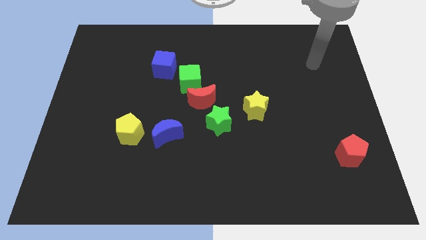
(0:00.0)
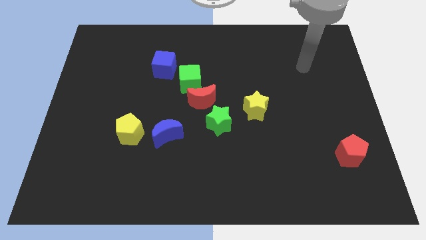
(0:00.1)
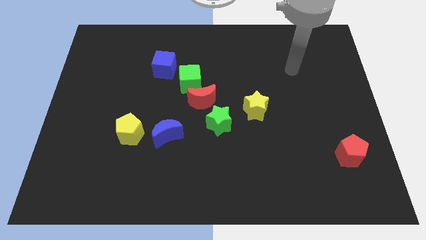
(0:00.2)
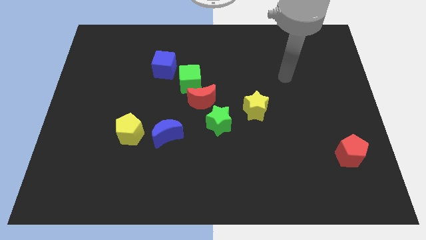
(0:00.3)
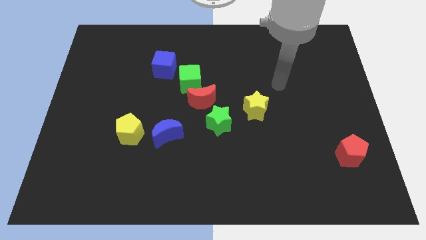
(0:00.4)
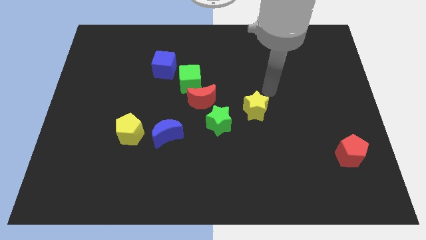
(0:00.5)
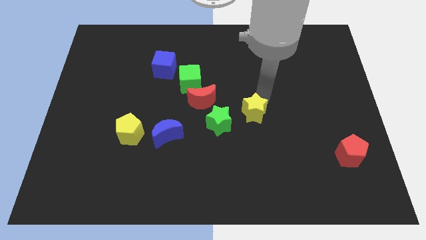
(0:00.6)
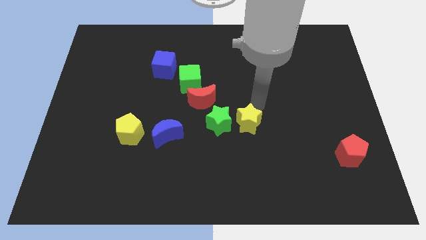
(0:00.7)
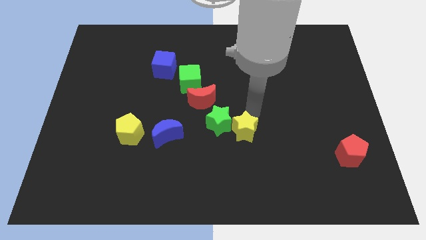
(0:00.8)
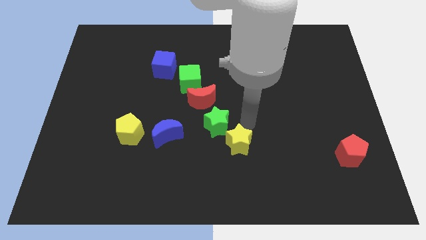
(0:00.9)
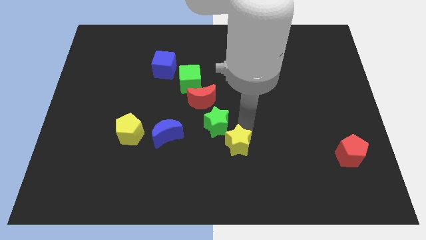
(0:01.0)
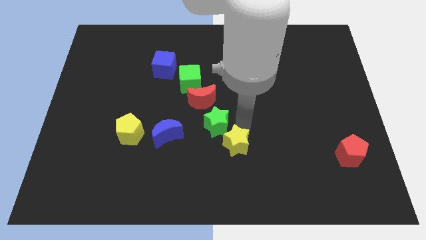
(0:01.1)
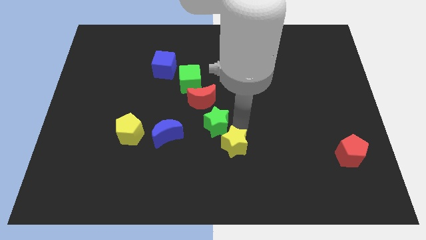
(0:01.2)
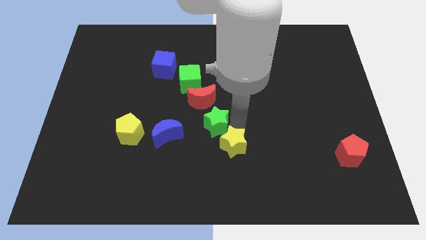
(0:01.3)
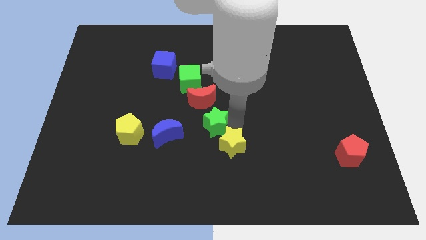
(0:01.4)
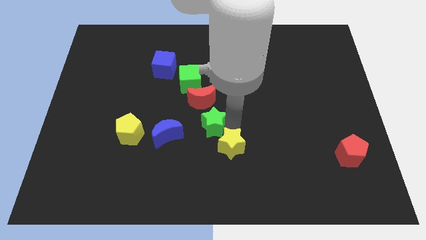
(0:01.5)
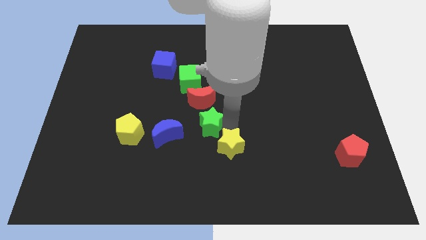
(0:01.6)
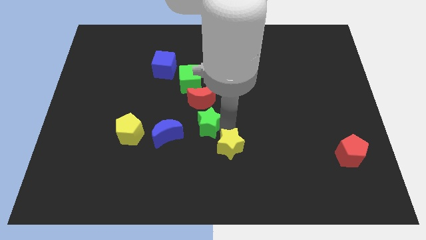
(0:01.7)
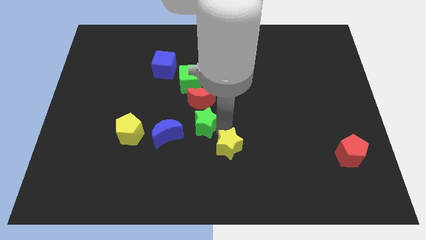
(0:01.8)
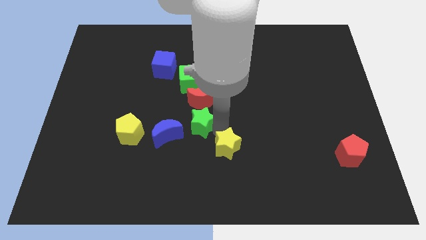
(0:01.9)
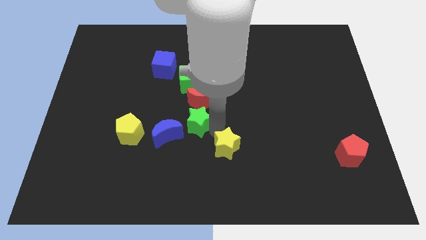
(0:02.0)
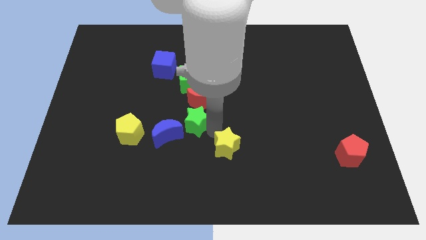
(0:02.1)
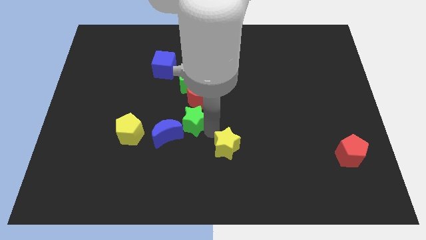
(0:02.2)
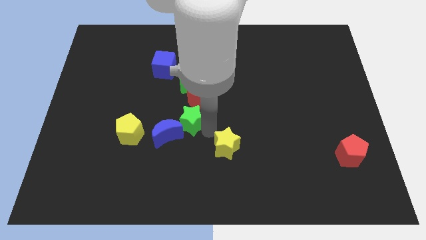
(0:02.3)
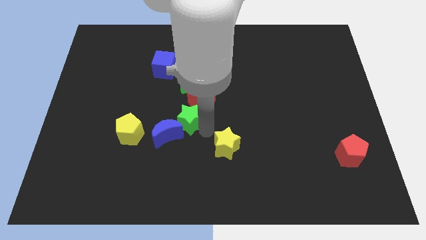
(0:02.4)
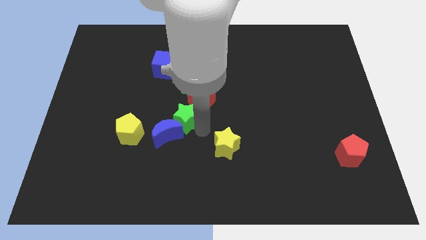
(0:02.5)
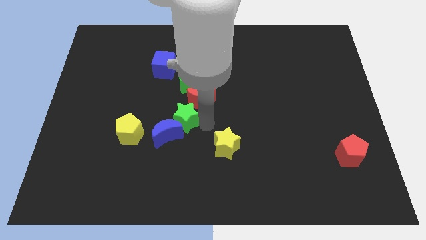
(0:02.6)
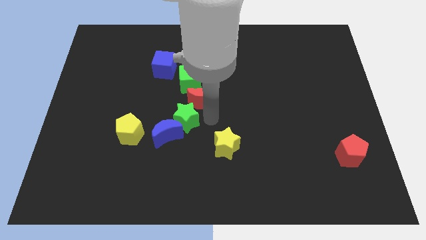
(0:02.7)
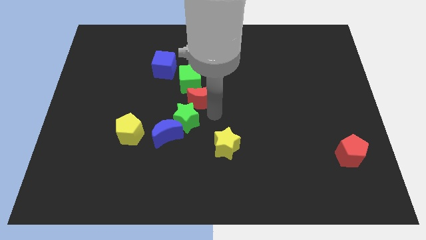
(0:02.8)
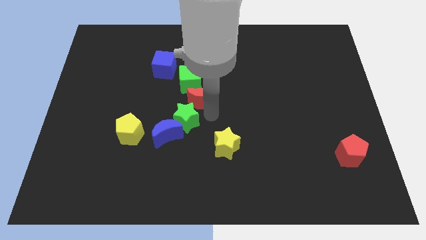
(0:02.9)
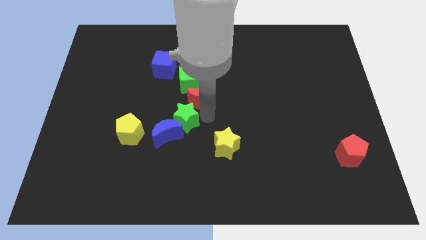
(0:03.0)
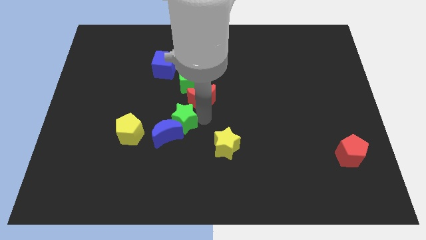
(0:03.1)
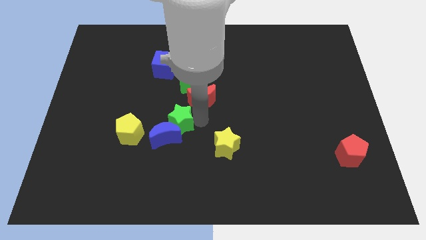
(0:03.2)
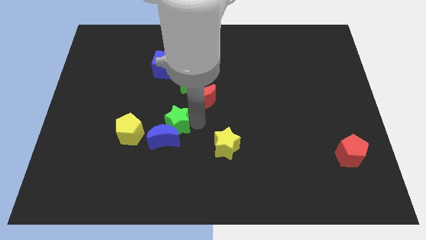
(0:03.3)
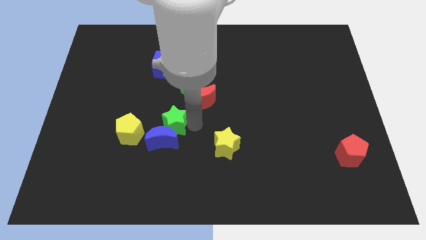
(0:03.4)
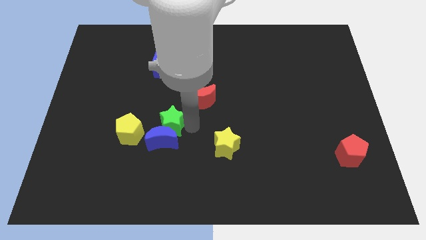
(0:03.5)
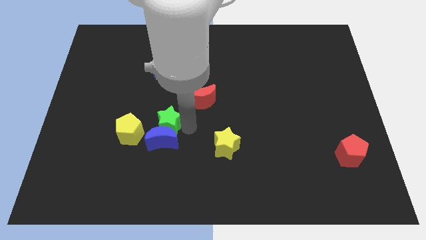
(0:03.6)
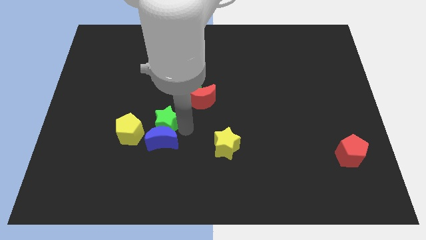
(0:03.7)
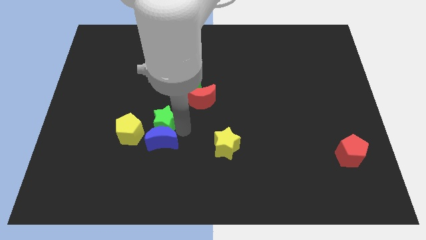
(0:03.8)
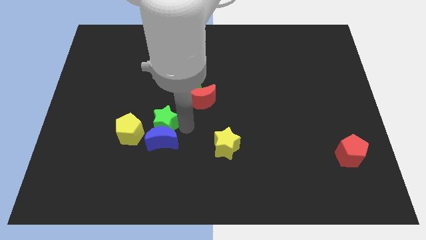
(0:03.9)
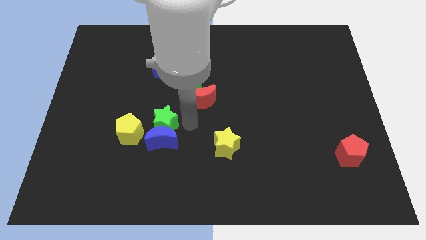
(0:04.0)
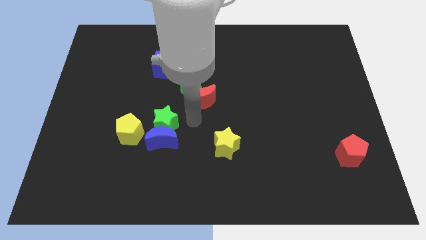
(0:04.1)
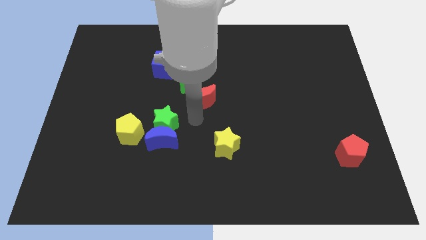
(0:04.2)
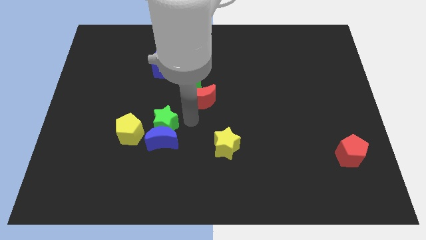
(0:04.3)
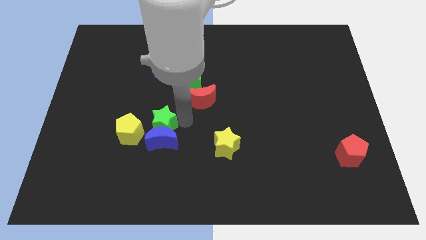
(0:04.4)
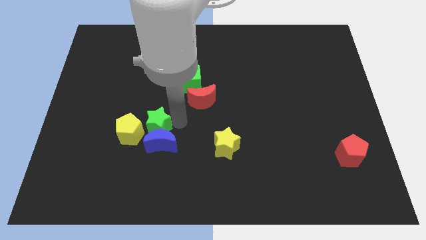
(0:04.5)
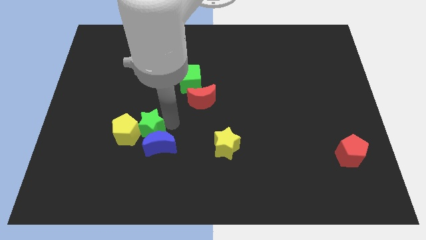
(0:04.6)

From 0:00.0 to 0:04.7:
move the green star close to the yellow pentagon

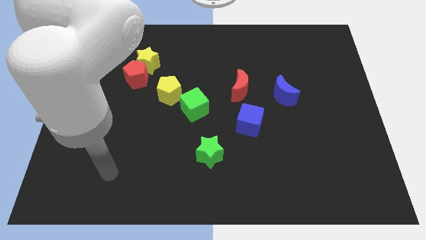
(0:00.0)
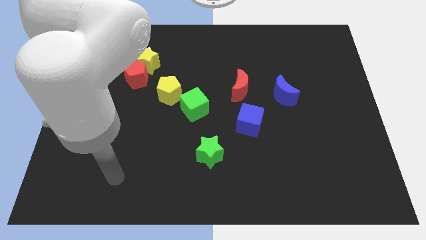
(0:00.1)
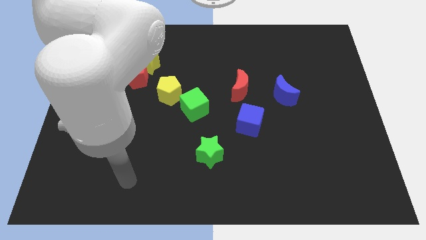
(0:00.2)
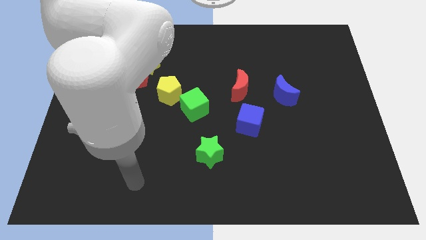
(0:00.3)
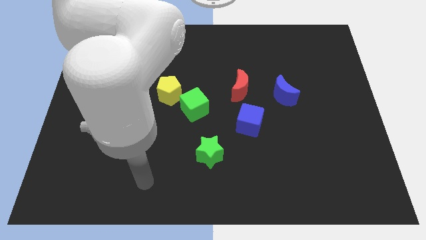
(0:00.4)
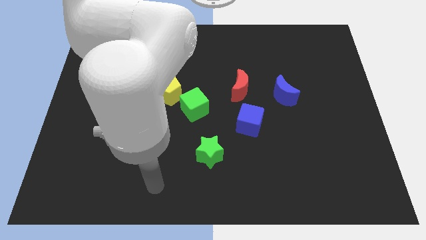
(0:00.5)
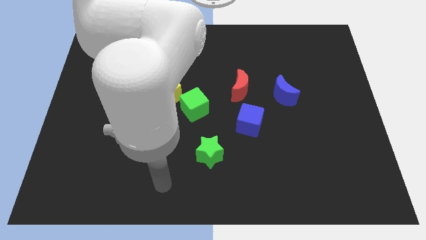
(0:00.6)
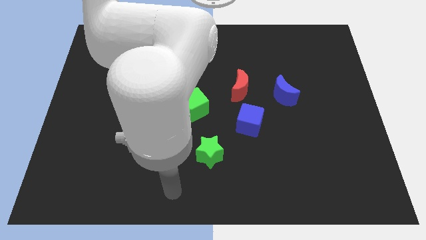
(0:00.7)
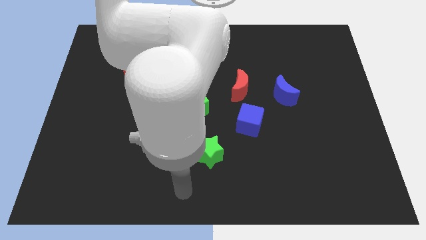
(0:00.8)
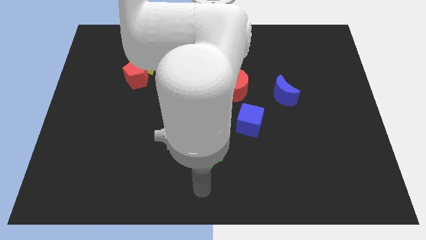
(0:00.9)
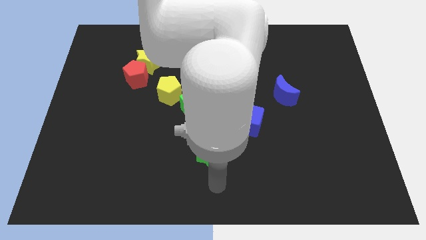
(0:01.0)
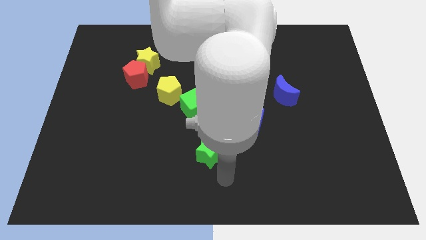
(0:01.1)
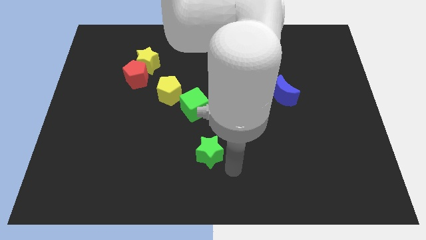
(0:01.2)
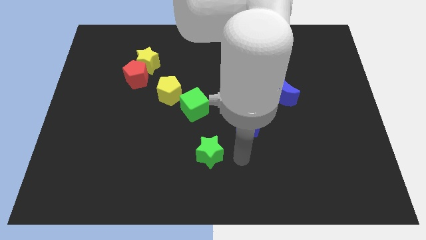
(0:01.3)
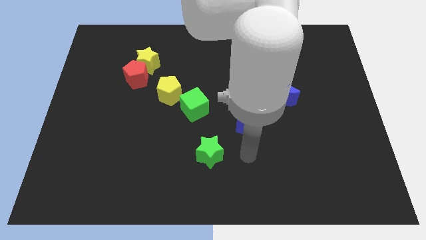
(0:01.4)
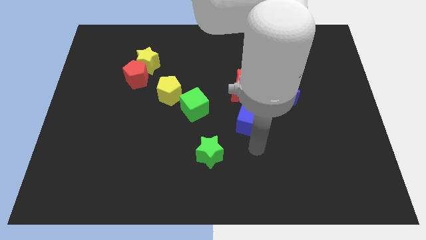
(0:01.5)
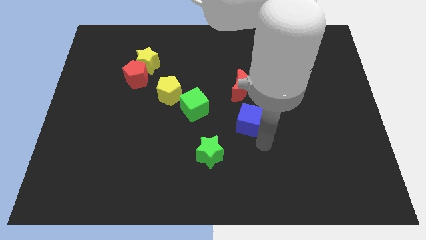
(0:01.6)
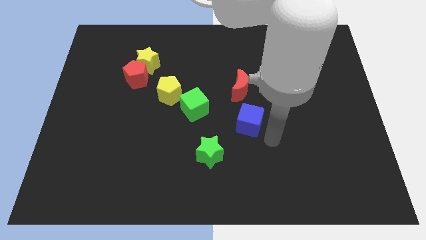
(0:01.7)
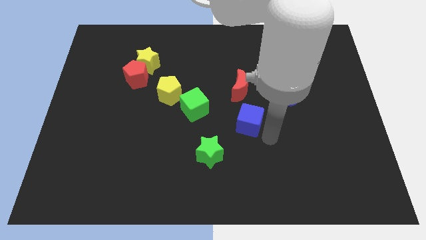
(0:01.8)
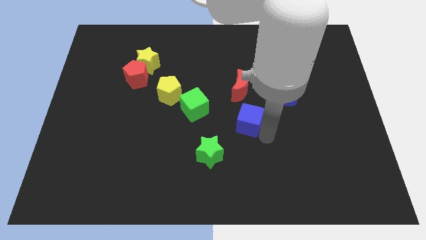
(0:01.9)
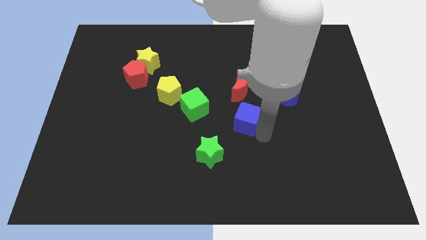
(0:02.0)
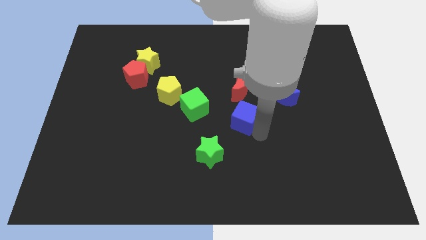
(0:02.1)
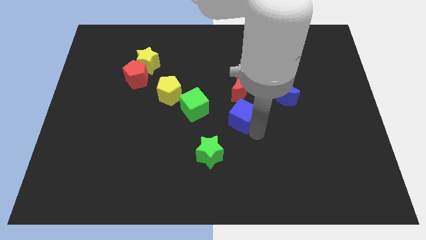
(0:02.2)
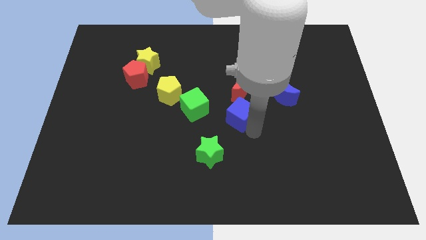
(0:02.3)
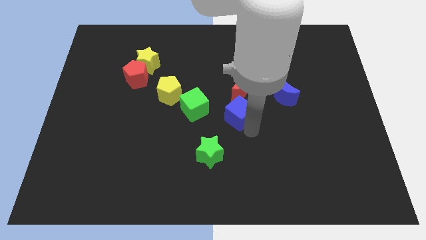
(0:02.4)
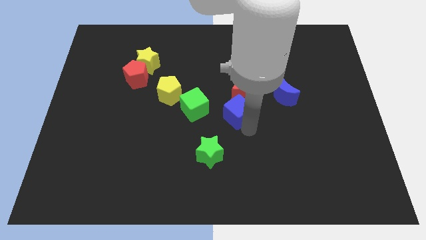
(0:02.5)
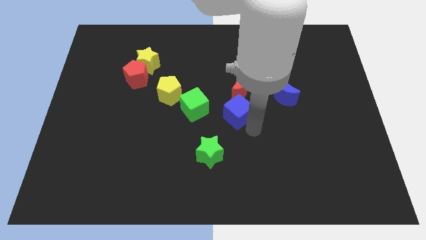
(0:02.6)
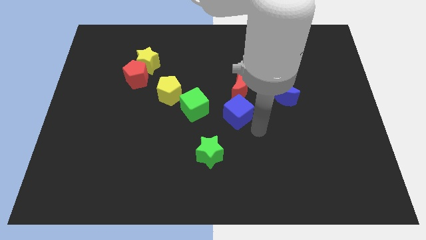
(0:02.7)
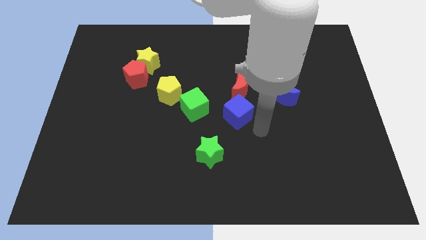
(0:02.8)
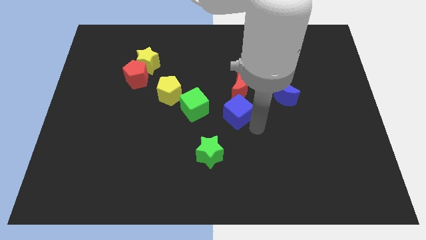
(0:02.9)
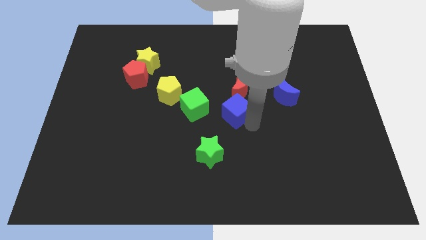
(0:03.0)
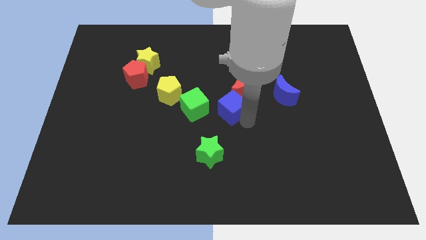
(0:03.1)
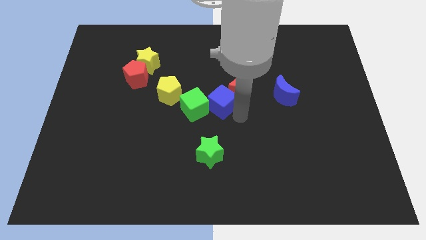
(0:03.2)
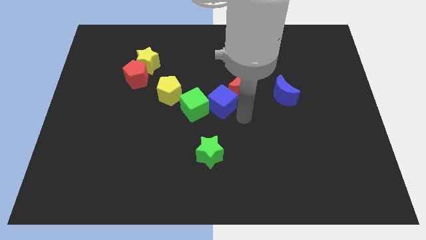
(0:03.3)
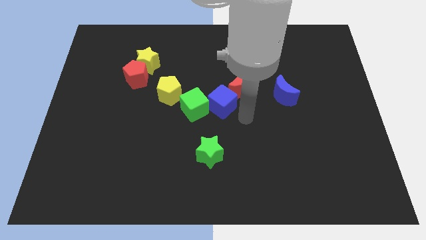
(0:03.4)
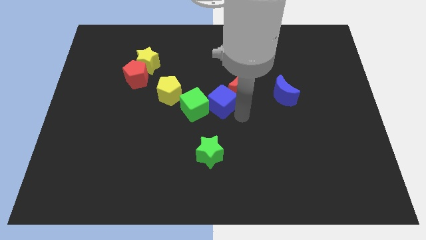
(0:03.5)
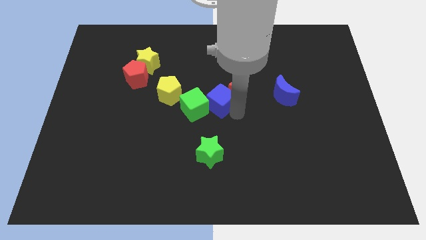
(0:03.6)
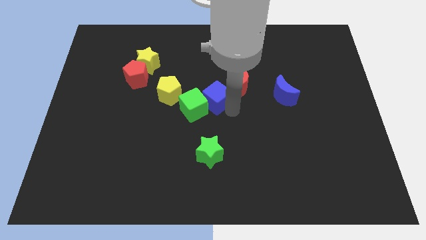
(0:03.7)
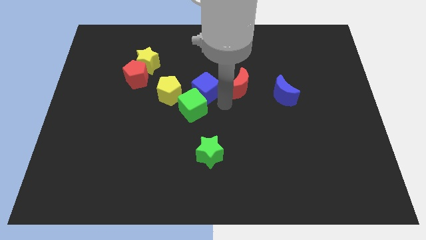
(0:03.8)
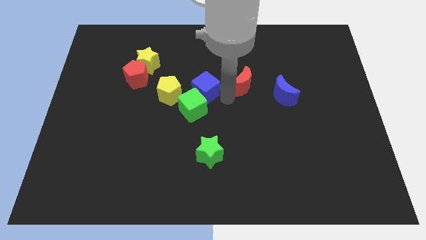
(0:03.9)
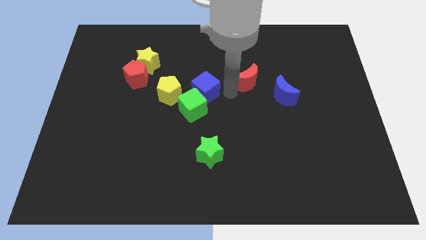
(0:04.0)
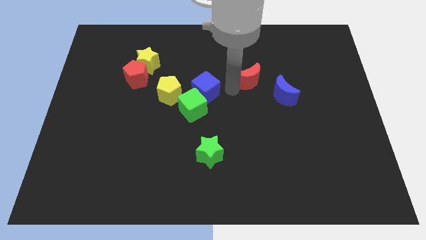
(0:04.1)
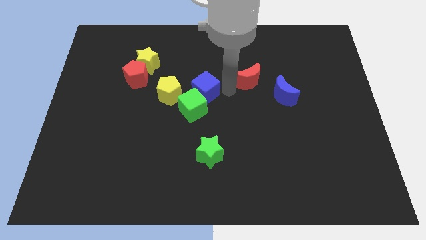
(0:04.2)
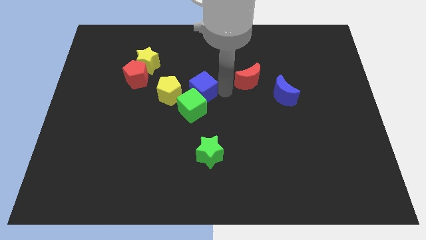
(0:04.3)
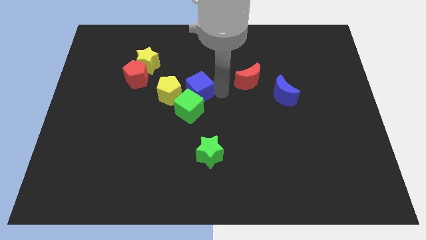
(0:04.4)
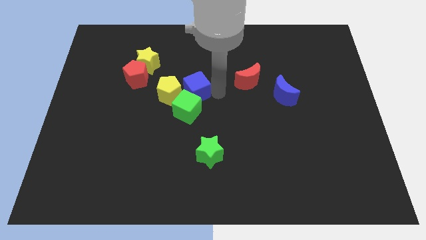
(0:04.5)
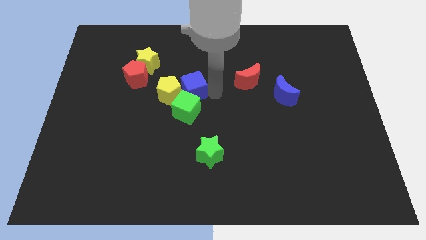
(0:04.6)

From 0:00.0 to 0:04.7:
put the blue cube next to the yellow pentagon
